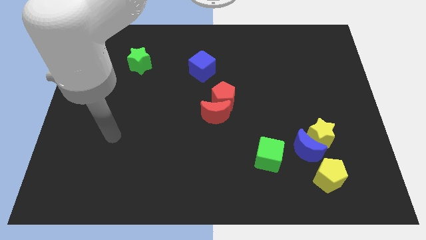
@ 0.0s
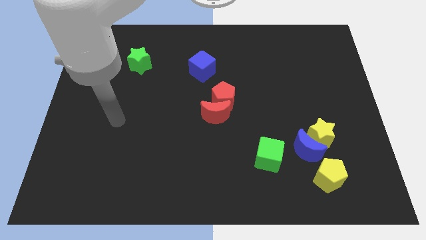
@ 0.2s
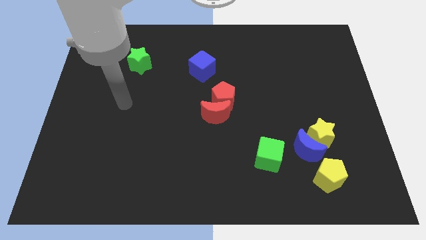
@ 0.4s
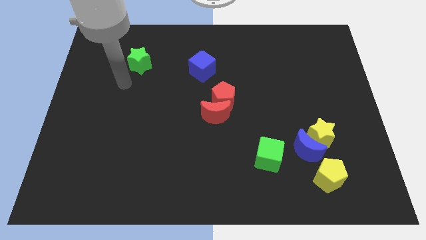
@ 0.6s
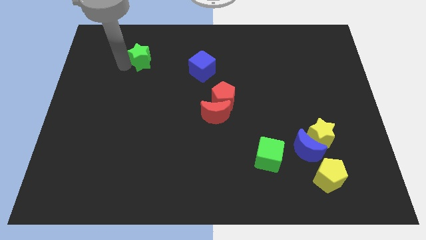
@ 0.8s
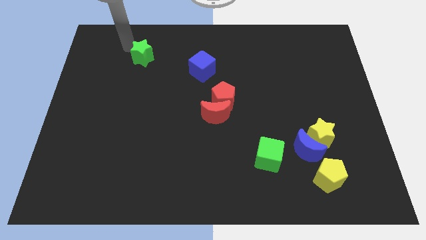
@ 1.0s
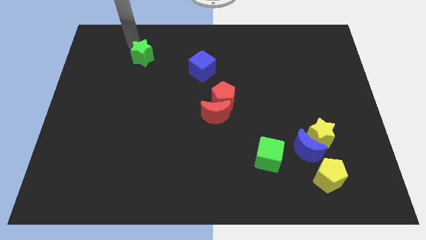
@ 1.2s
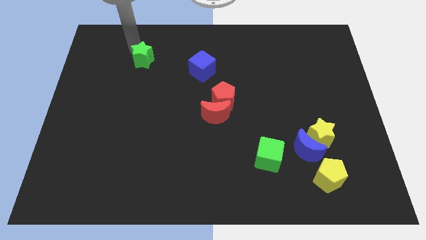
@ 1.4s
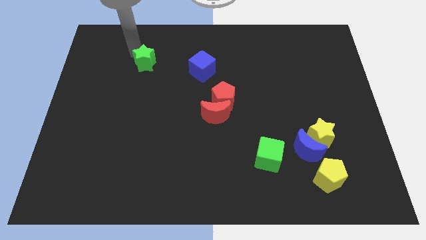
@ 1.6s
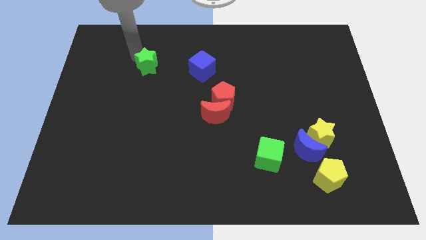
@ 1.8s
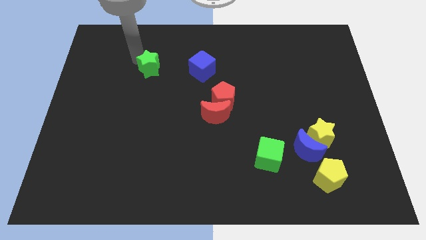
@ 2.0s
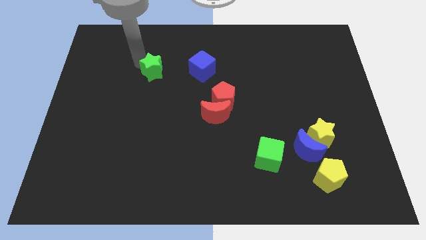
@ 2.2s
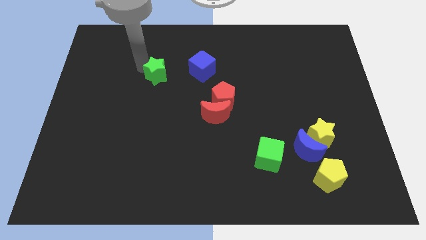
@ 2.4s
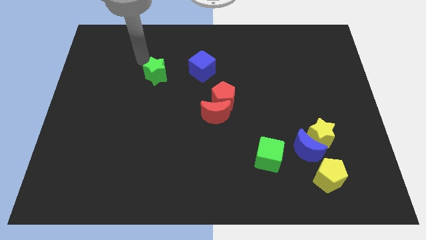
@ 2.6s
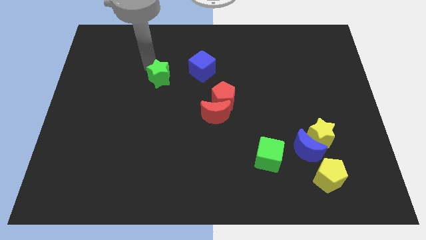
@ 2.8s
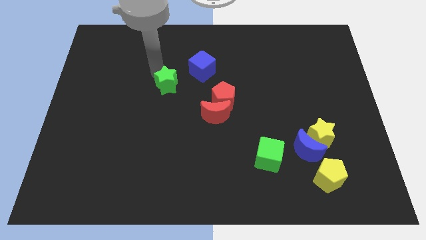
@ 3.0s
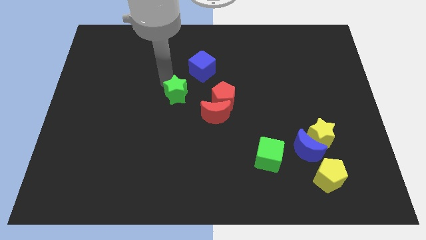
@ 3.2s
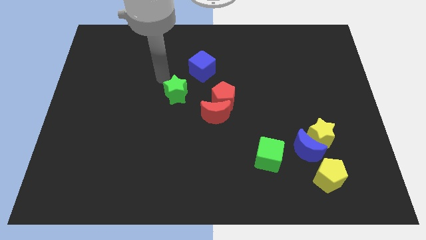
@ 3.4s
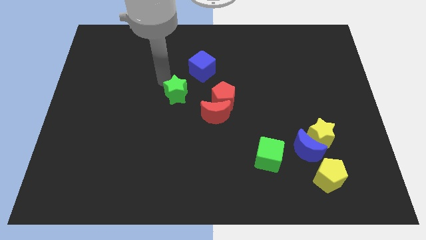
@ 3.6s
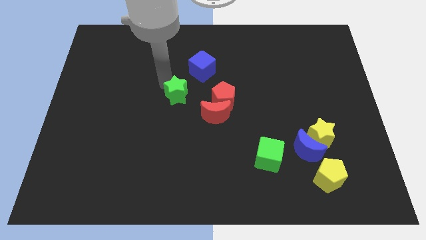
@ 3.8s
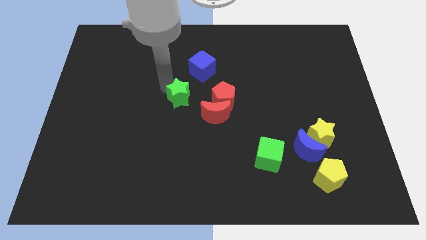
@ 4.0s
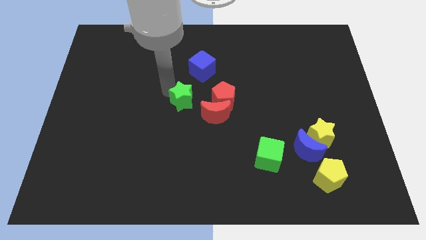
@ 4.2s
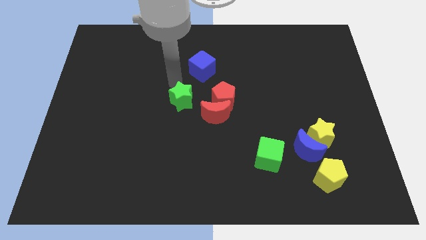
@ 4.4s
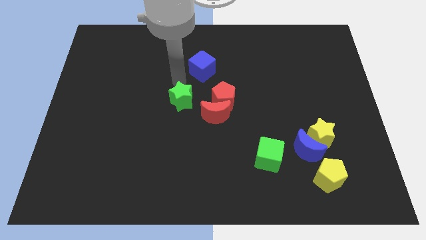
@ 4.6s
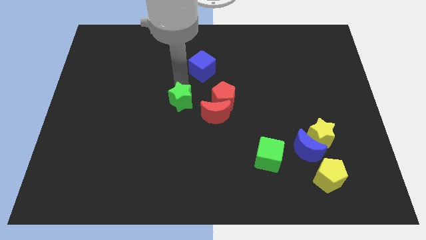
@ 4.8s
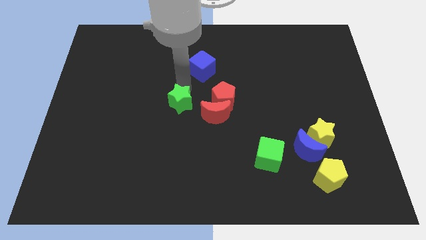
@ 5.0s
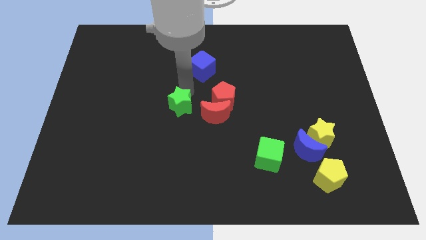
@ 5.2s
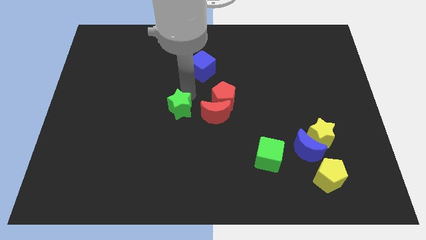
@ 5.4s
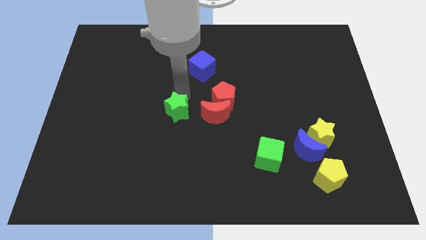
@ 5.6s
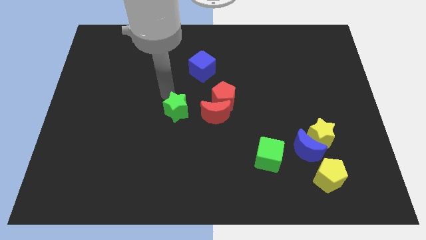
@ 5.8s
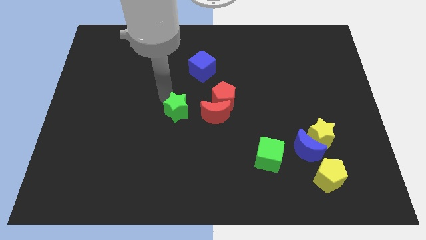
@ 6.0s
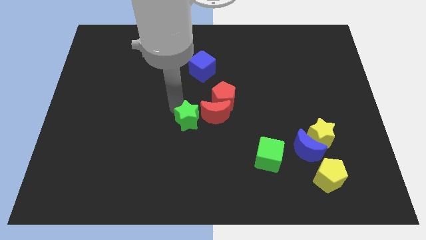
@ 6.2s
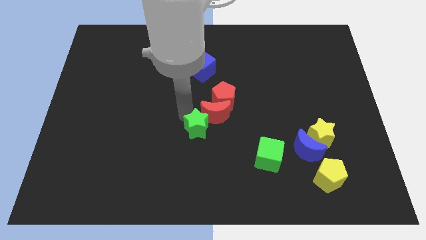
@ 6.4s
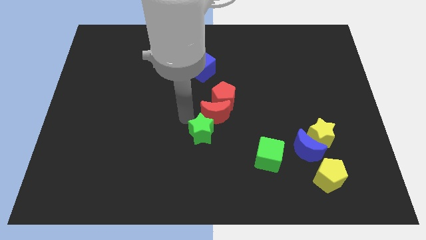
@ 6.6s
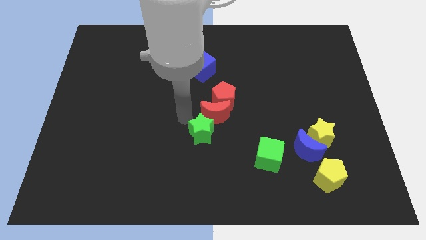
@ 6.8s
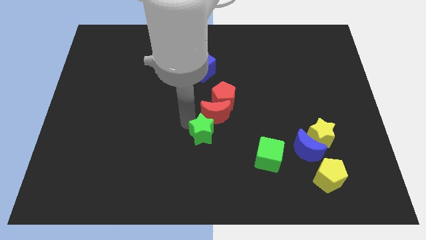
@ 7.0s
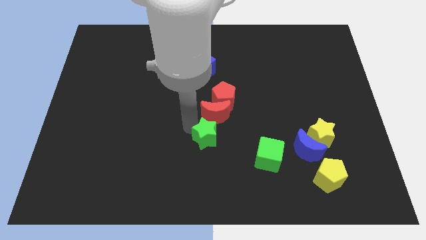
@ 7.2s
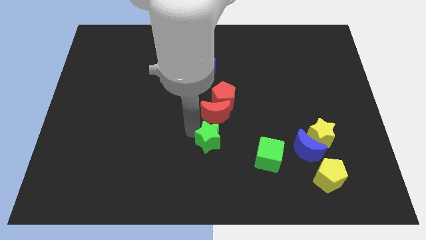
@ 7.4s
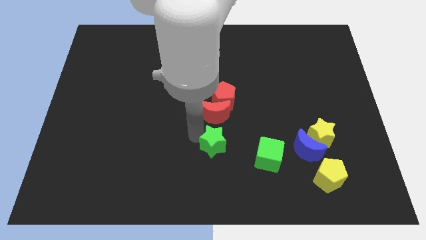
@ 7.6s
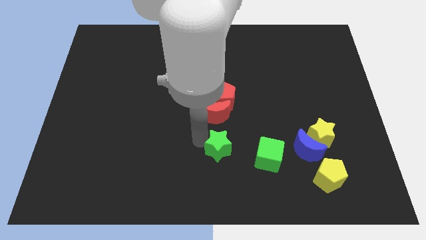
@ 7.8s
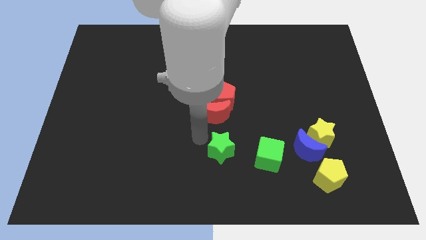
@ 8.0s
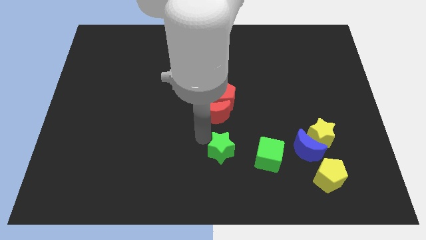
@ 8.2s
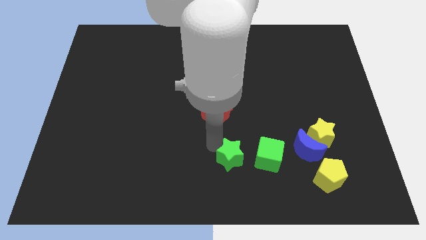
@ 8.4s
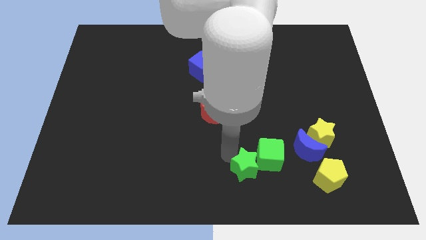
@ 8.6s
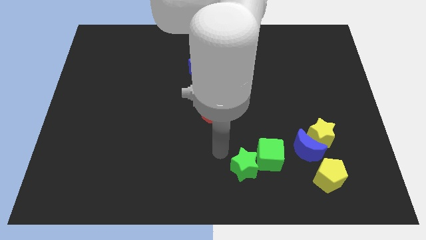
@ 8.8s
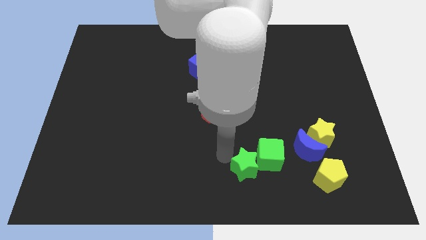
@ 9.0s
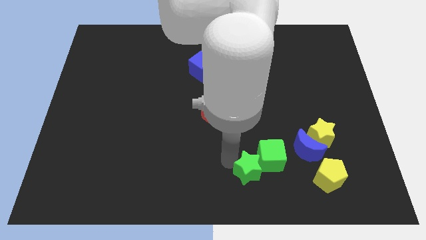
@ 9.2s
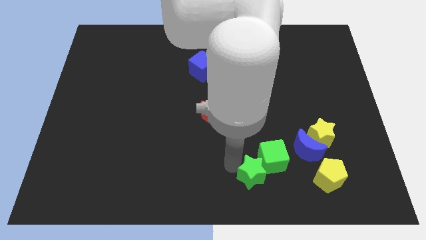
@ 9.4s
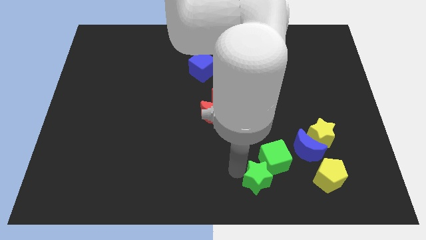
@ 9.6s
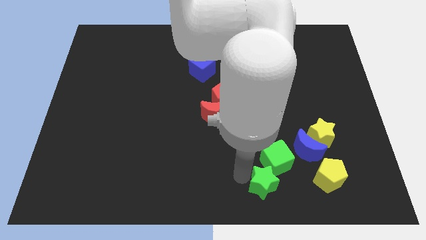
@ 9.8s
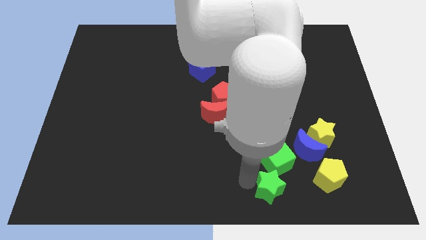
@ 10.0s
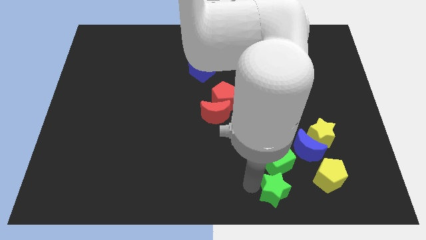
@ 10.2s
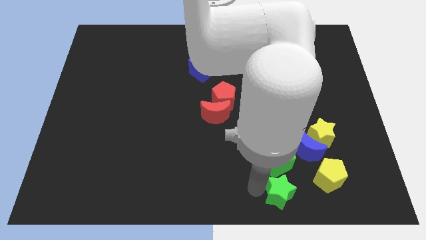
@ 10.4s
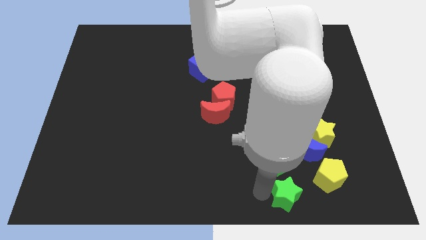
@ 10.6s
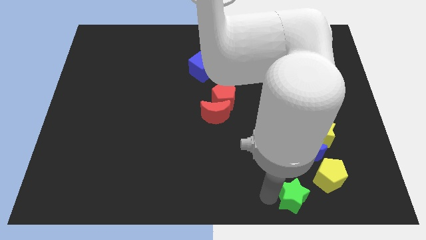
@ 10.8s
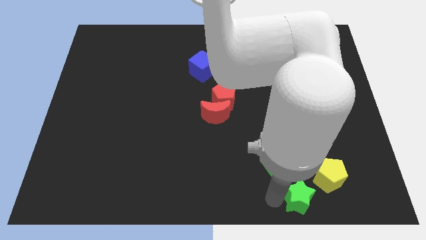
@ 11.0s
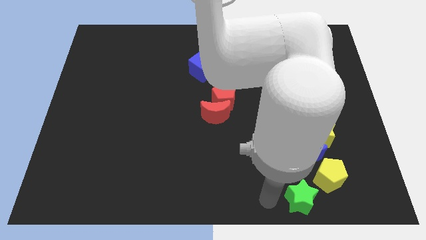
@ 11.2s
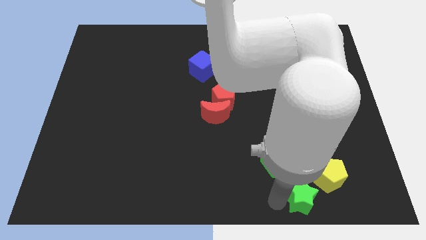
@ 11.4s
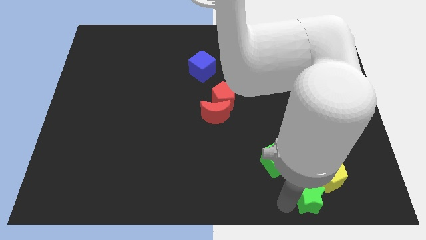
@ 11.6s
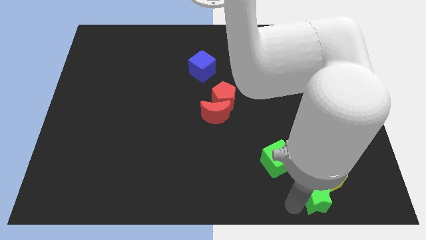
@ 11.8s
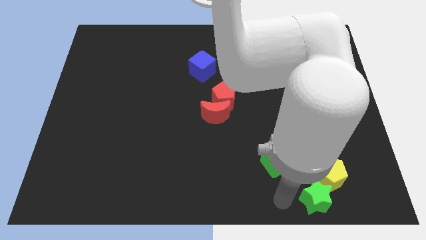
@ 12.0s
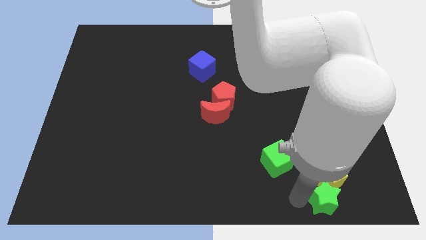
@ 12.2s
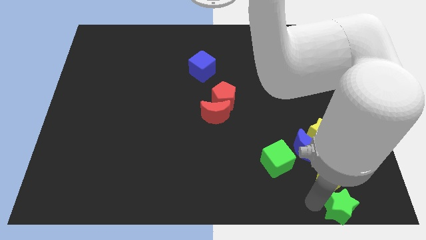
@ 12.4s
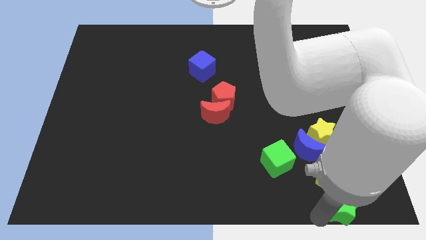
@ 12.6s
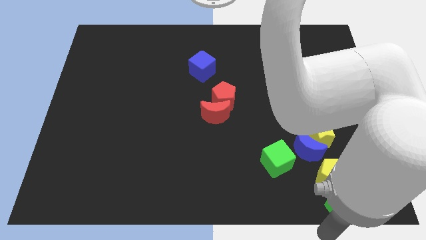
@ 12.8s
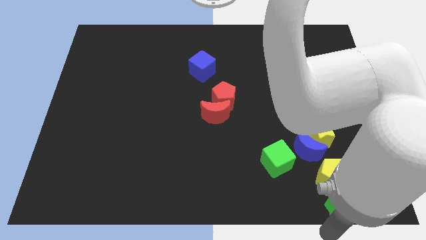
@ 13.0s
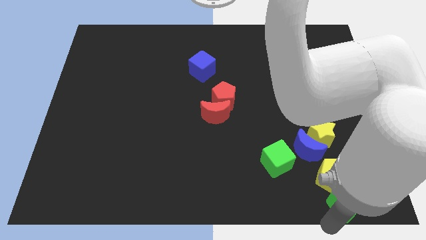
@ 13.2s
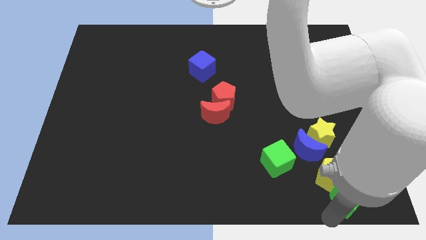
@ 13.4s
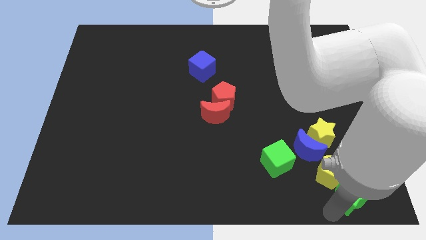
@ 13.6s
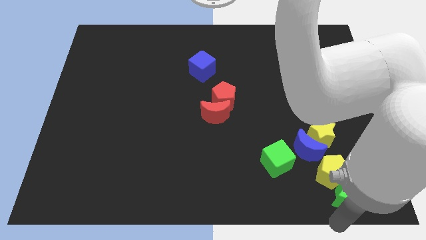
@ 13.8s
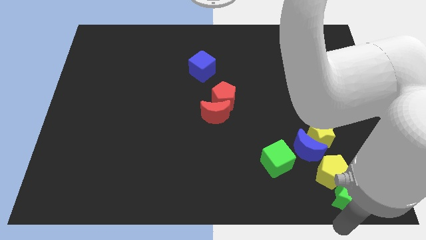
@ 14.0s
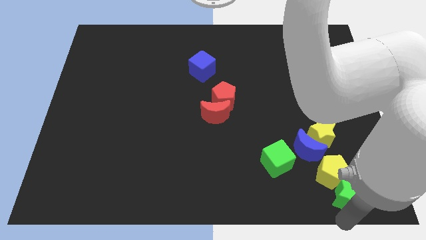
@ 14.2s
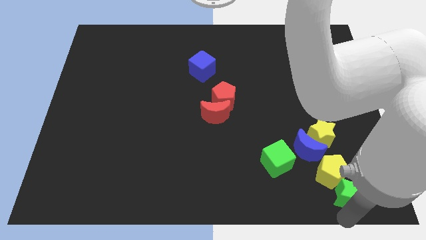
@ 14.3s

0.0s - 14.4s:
put the green star to the bottom right of the blue moon

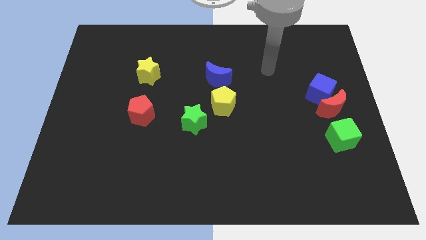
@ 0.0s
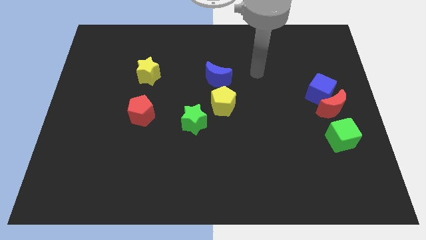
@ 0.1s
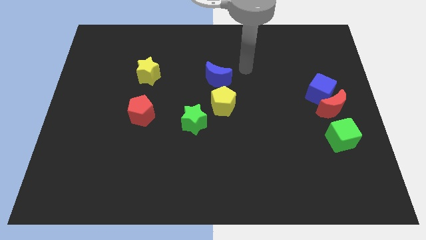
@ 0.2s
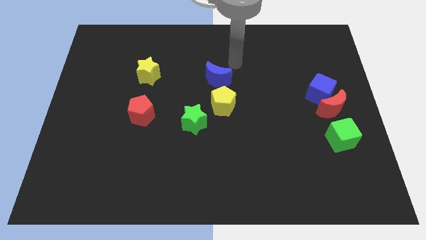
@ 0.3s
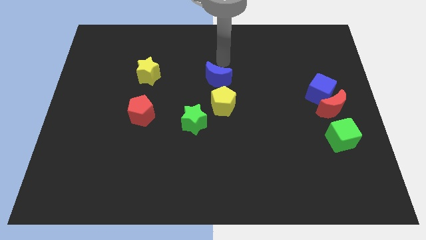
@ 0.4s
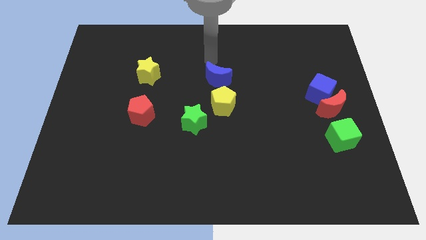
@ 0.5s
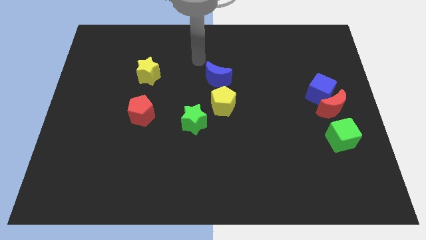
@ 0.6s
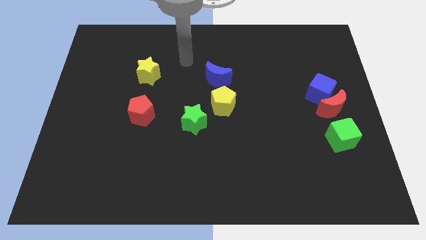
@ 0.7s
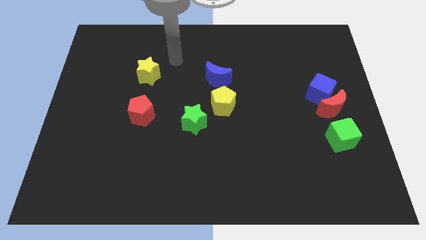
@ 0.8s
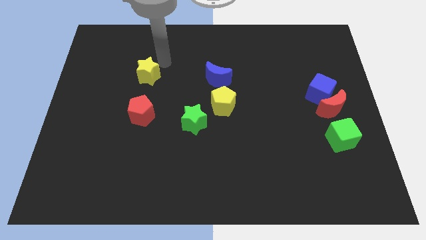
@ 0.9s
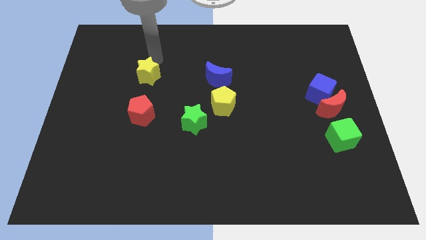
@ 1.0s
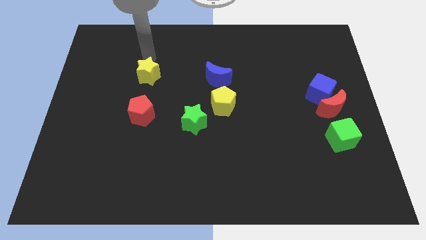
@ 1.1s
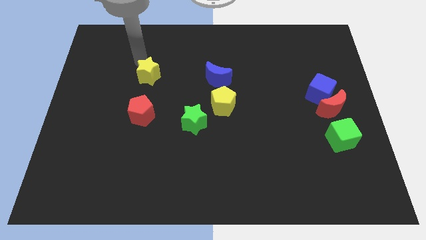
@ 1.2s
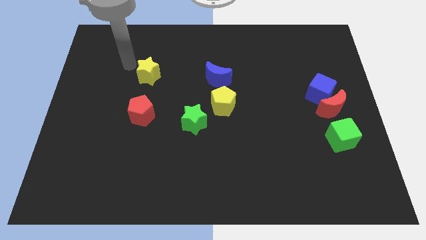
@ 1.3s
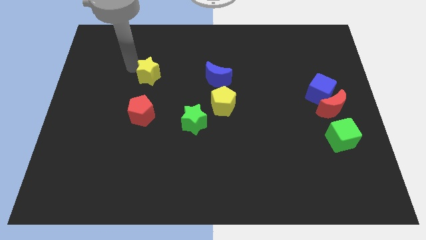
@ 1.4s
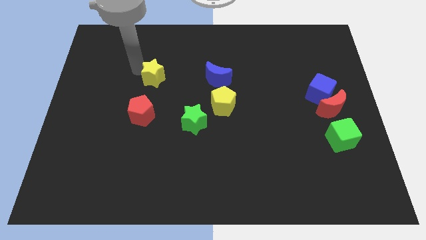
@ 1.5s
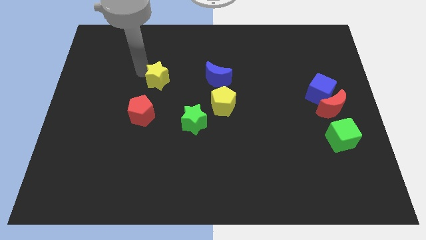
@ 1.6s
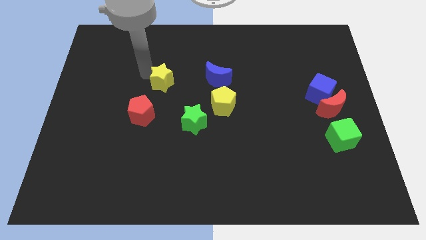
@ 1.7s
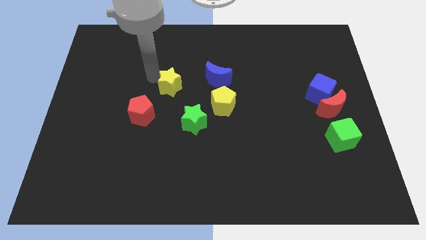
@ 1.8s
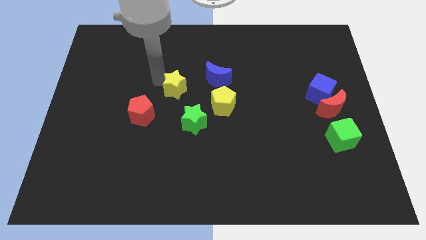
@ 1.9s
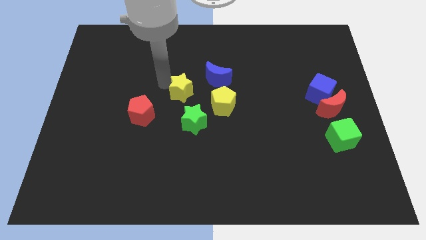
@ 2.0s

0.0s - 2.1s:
slide the yellow star to the bottom left side of the blue moon
